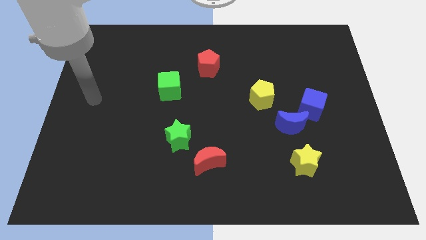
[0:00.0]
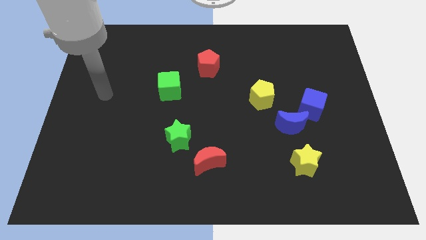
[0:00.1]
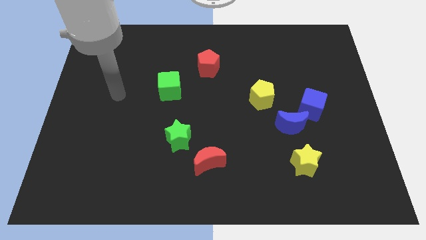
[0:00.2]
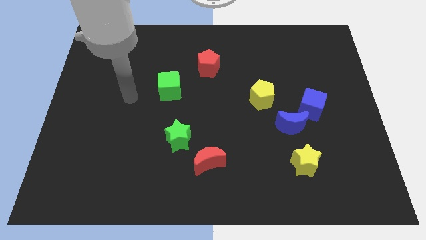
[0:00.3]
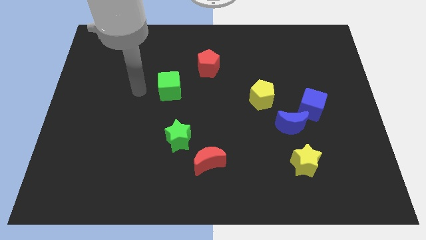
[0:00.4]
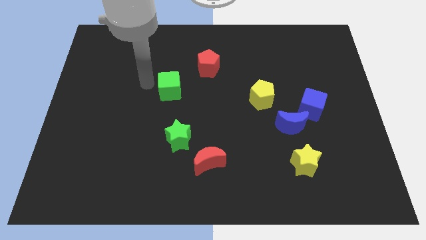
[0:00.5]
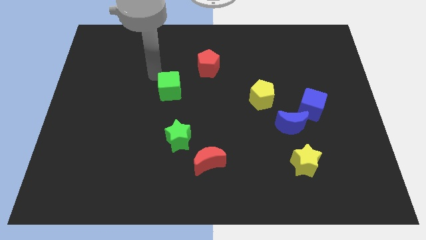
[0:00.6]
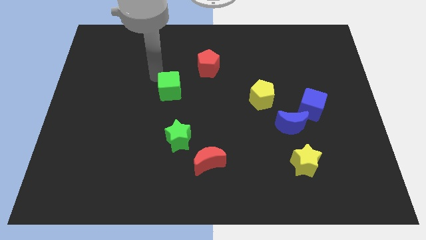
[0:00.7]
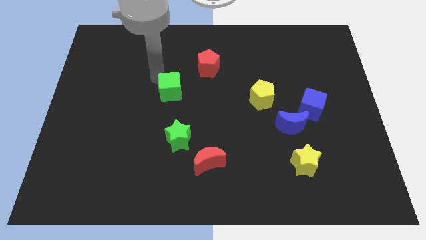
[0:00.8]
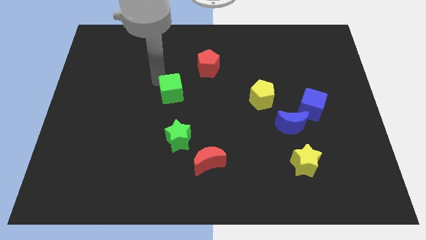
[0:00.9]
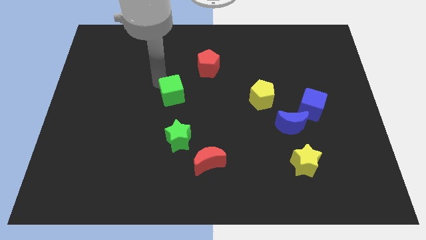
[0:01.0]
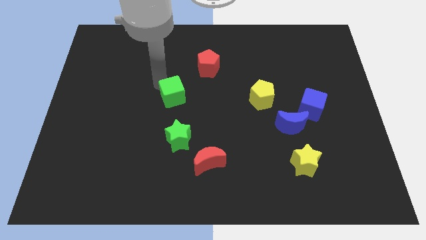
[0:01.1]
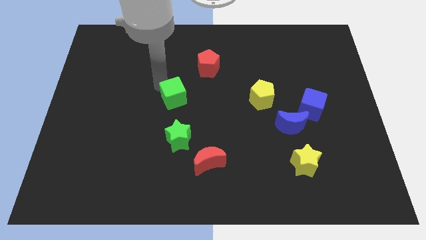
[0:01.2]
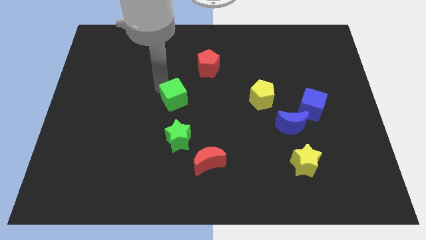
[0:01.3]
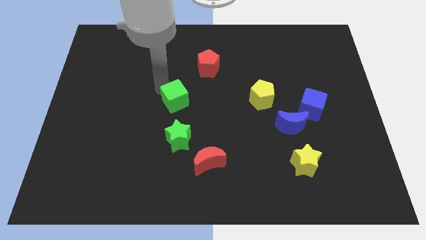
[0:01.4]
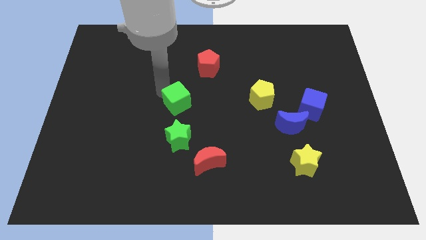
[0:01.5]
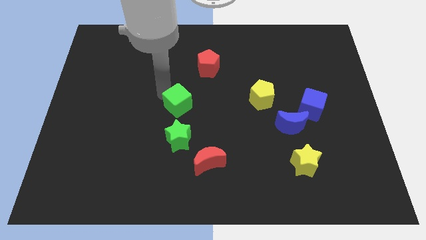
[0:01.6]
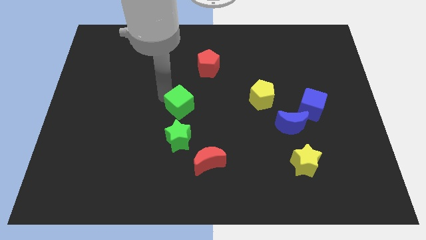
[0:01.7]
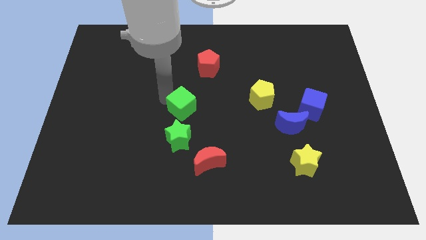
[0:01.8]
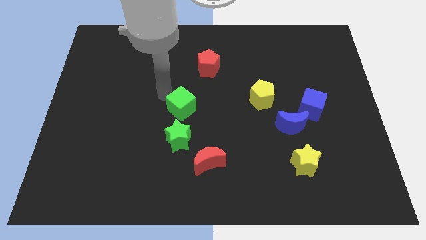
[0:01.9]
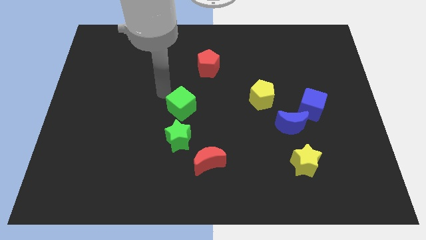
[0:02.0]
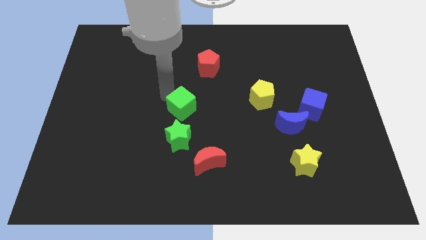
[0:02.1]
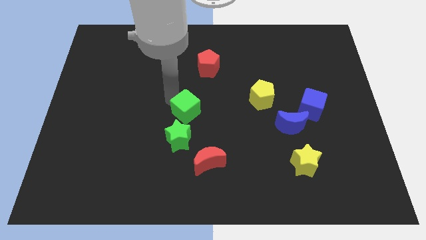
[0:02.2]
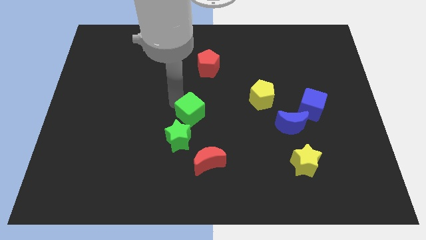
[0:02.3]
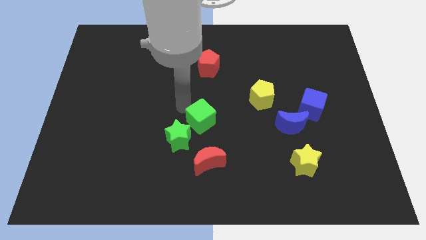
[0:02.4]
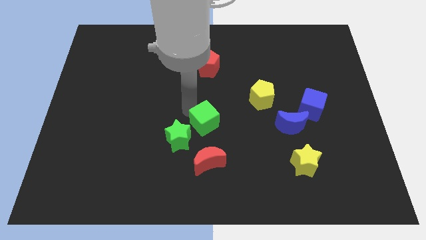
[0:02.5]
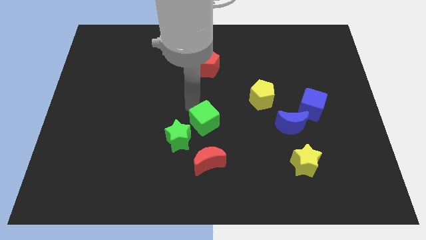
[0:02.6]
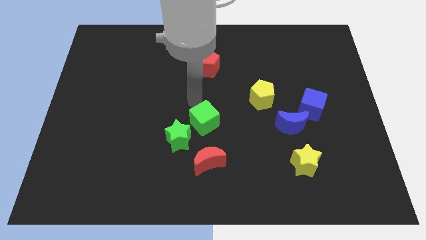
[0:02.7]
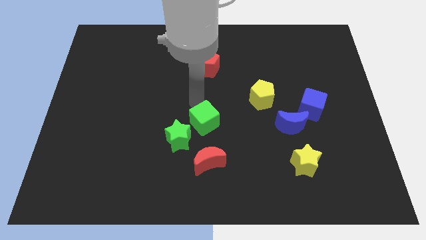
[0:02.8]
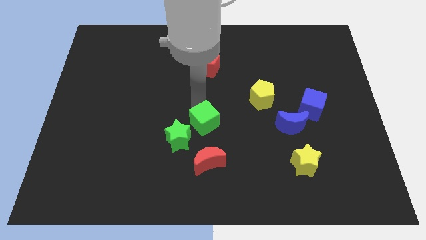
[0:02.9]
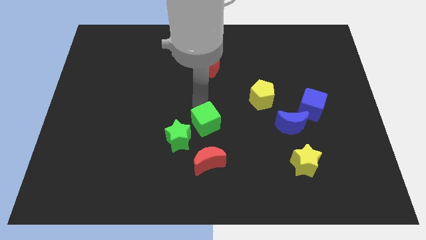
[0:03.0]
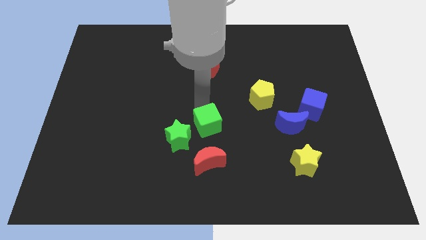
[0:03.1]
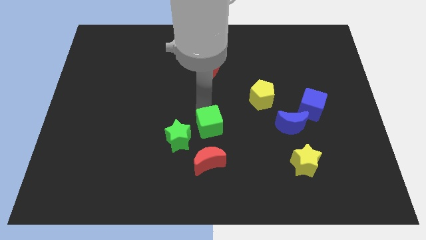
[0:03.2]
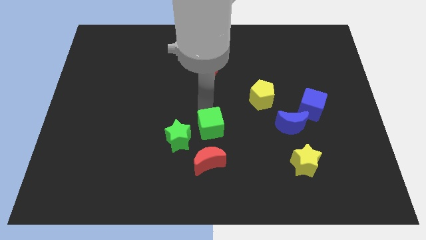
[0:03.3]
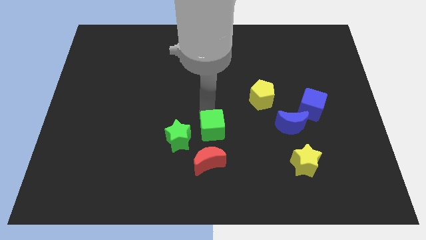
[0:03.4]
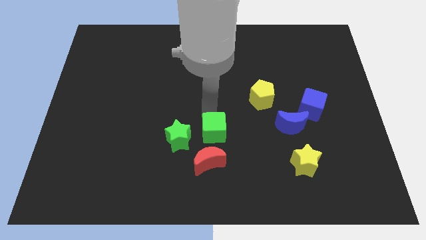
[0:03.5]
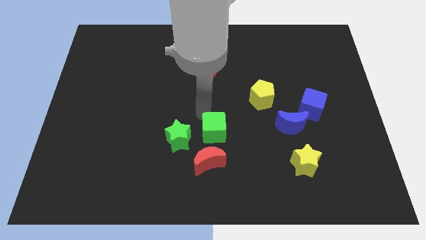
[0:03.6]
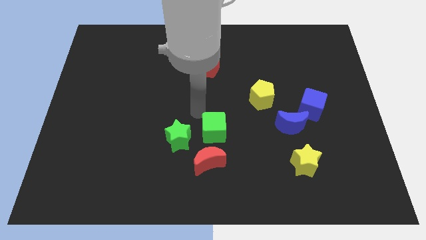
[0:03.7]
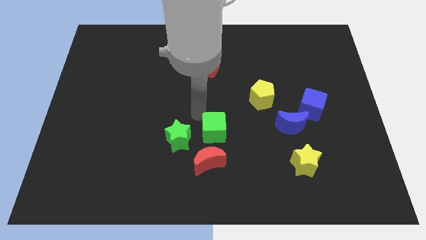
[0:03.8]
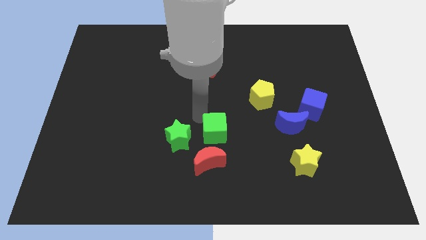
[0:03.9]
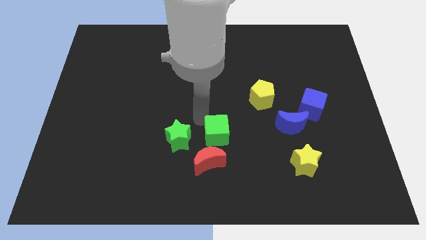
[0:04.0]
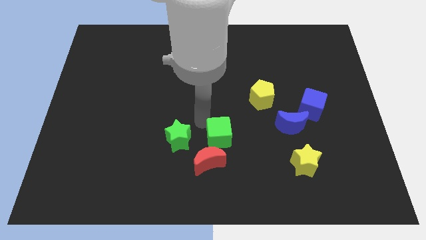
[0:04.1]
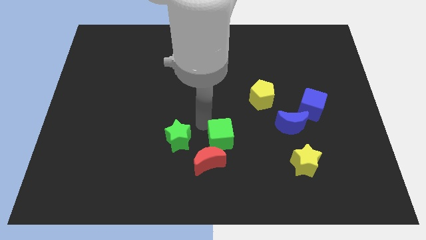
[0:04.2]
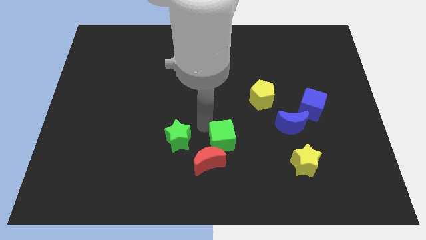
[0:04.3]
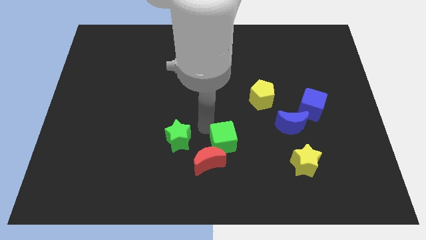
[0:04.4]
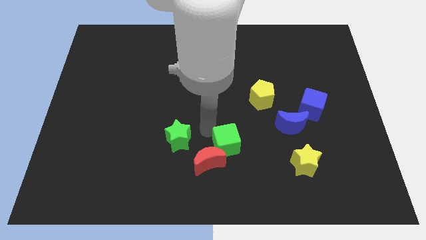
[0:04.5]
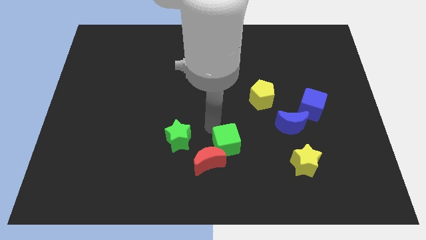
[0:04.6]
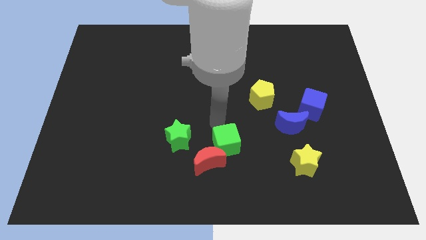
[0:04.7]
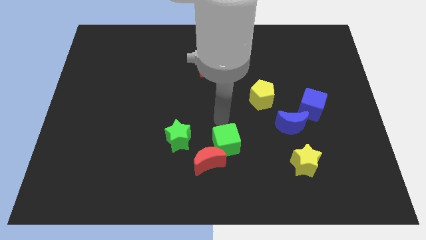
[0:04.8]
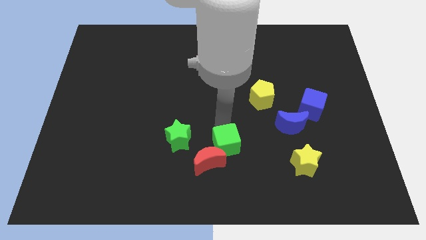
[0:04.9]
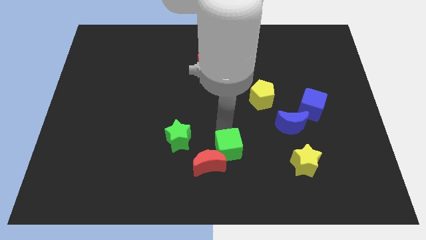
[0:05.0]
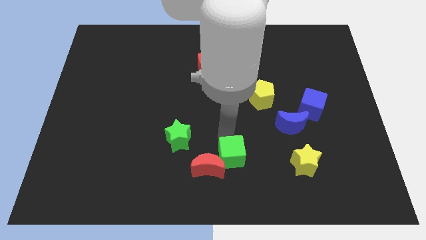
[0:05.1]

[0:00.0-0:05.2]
move the green cube to the bottom side

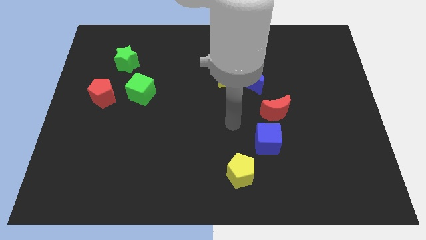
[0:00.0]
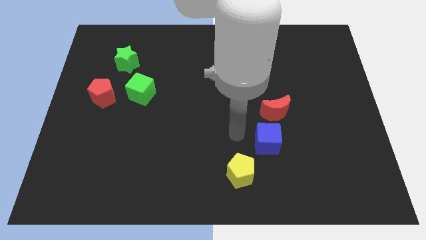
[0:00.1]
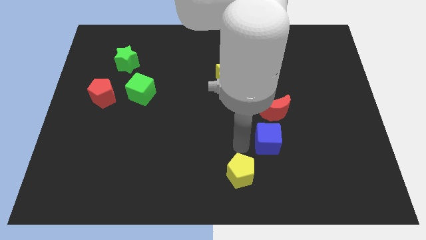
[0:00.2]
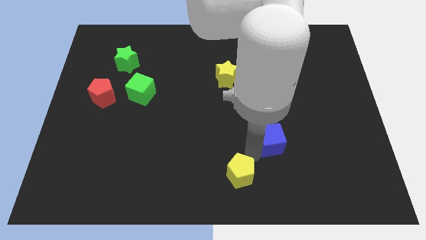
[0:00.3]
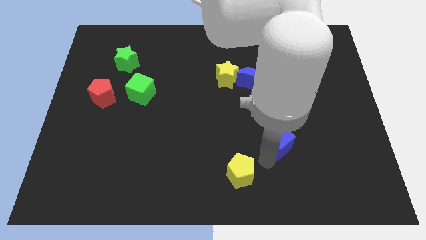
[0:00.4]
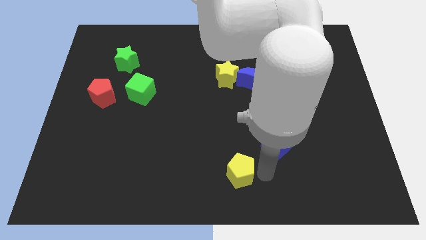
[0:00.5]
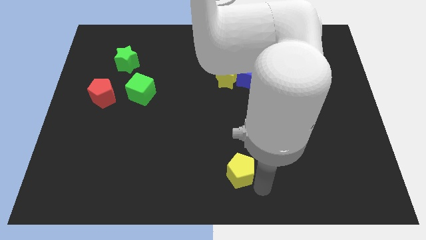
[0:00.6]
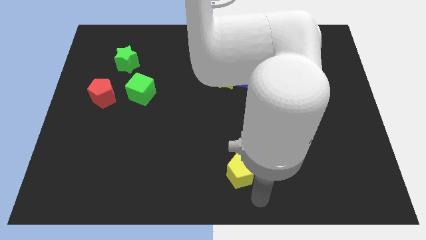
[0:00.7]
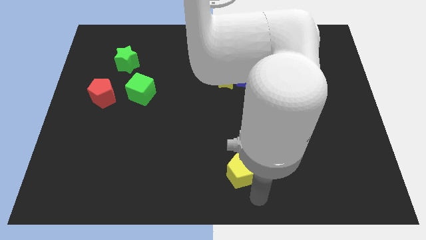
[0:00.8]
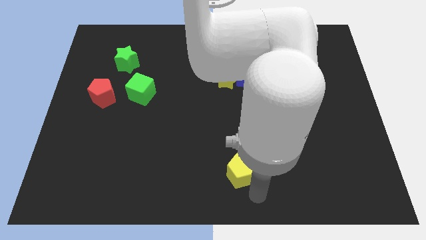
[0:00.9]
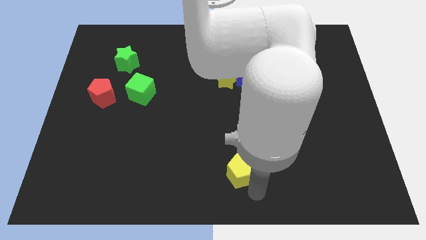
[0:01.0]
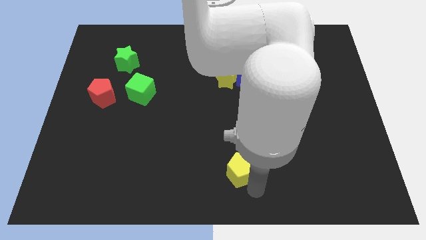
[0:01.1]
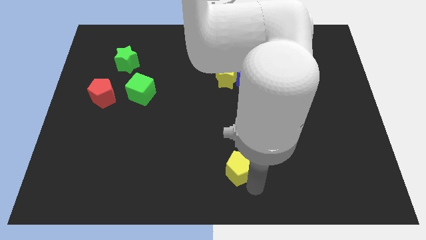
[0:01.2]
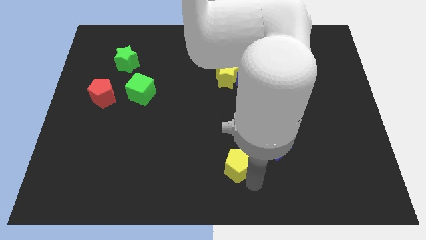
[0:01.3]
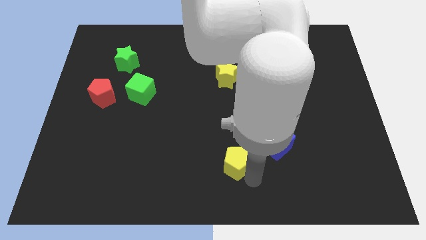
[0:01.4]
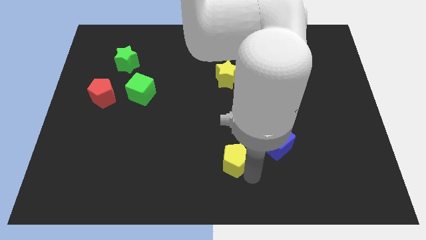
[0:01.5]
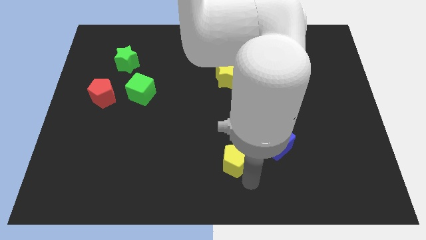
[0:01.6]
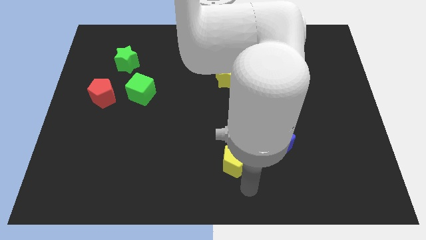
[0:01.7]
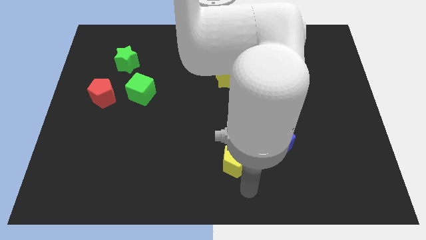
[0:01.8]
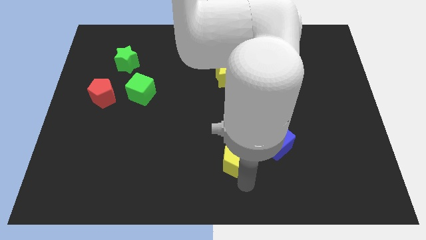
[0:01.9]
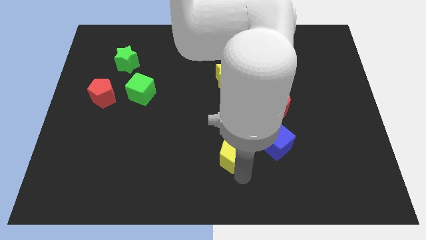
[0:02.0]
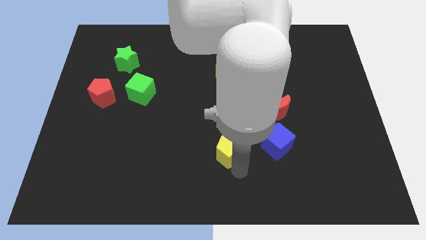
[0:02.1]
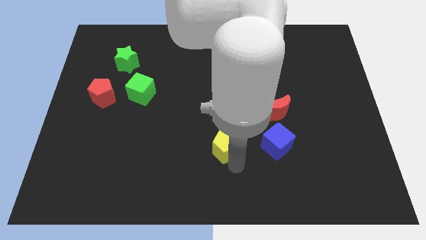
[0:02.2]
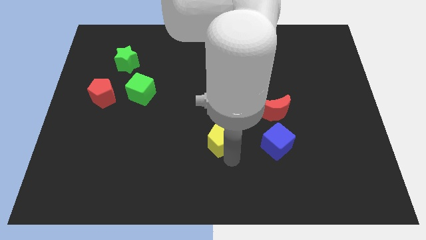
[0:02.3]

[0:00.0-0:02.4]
push the yellow pentagon to the center
